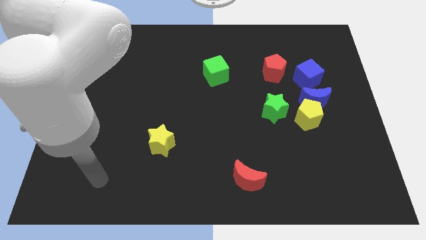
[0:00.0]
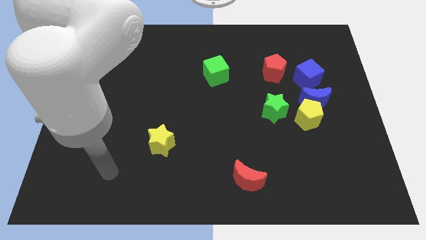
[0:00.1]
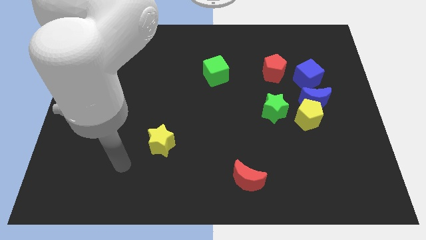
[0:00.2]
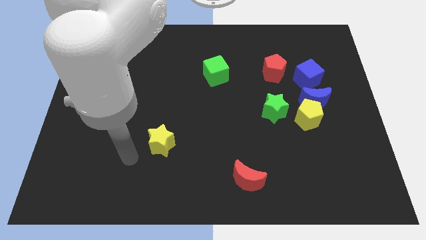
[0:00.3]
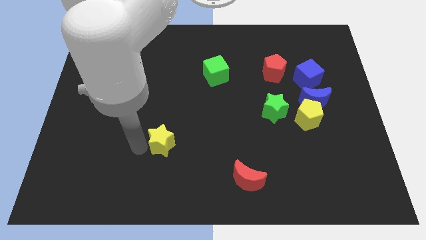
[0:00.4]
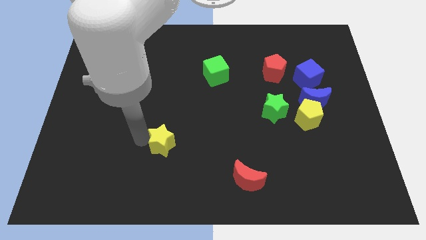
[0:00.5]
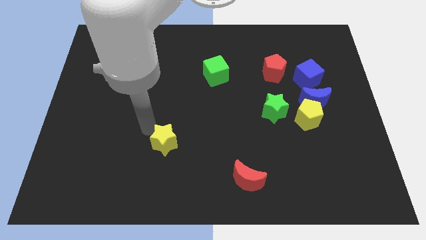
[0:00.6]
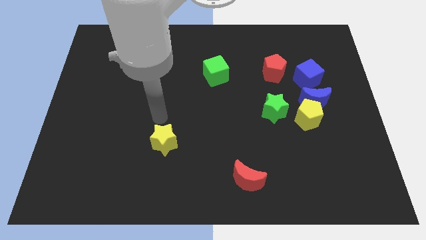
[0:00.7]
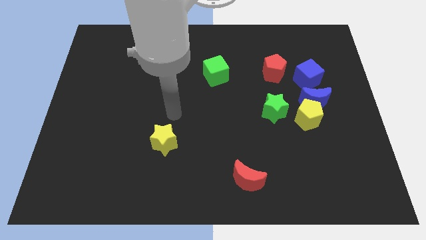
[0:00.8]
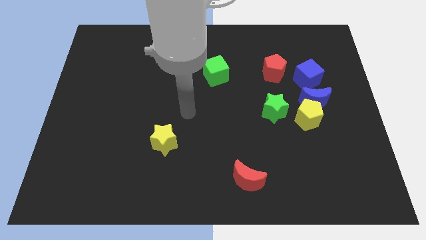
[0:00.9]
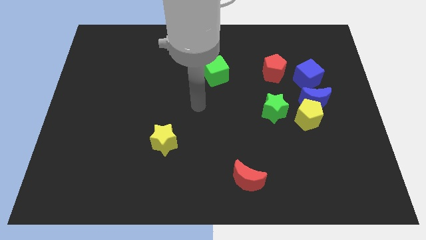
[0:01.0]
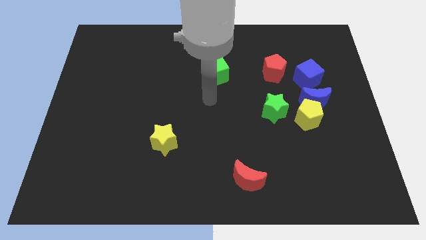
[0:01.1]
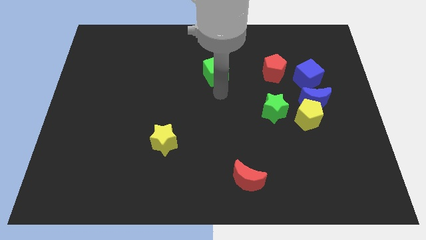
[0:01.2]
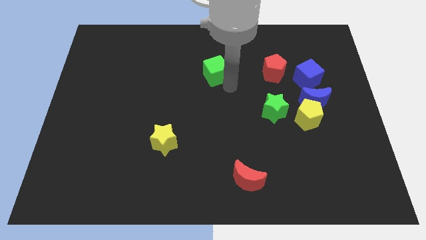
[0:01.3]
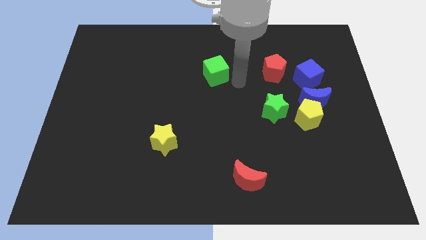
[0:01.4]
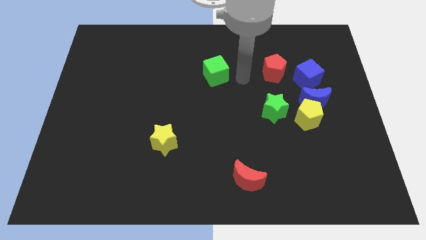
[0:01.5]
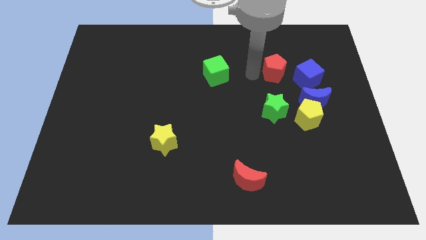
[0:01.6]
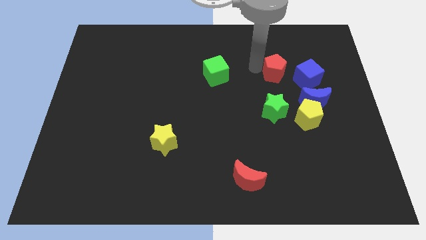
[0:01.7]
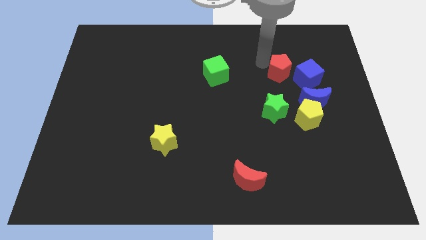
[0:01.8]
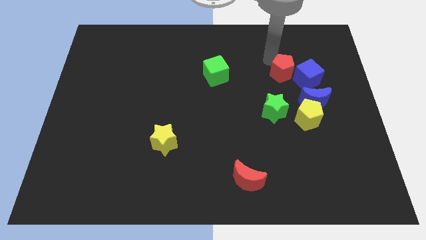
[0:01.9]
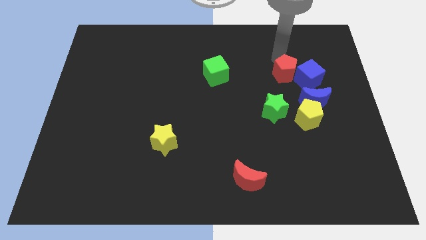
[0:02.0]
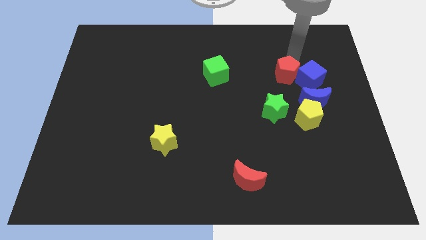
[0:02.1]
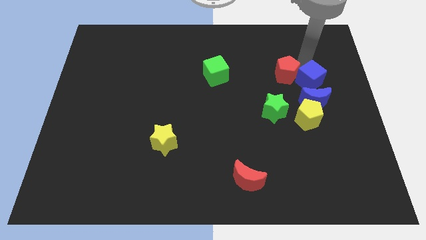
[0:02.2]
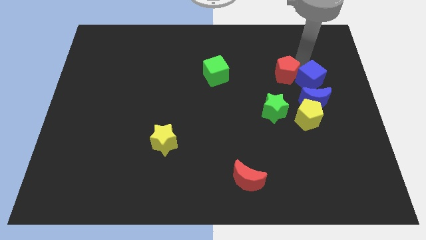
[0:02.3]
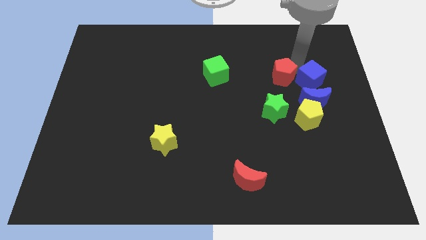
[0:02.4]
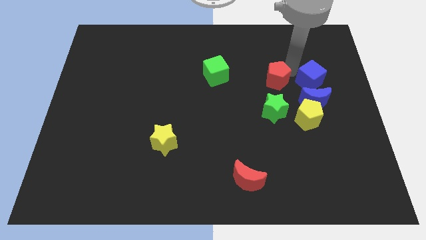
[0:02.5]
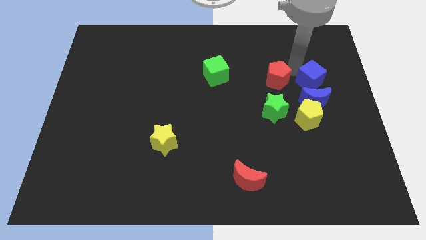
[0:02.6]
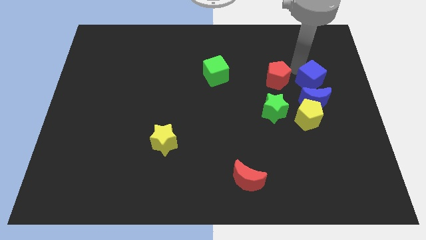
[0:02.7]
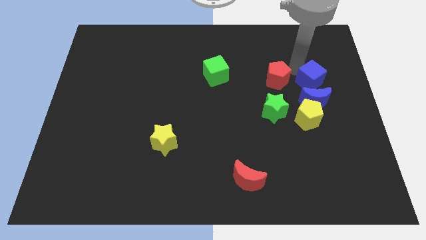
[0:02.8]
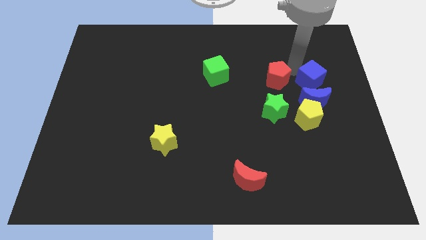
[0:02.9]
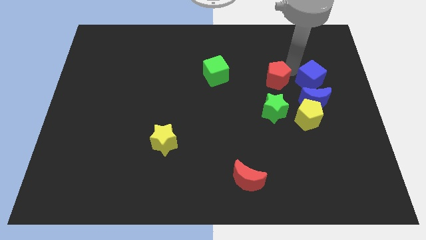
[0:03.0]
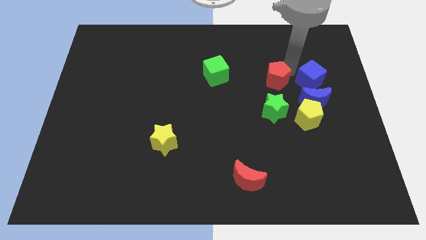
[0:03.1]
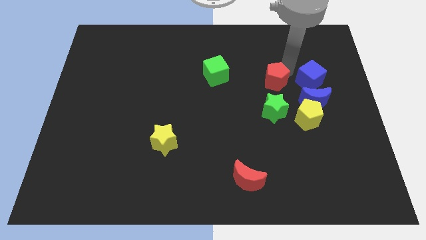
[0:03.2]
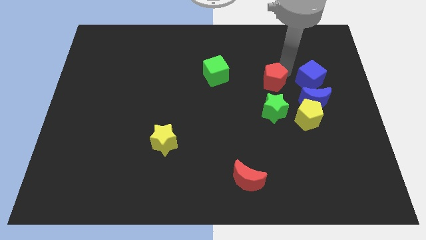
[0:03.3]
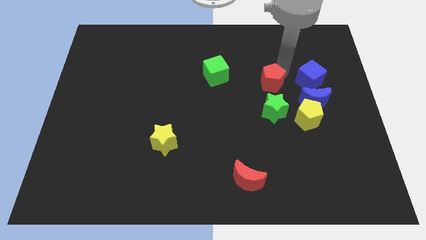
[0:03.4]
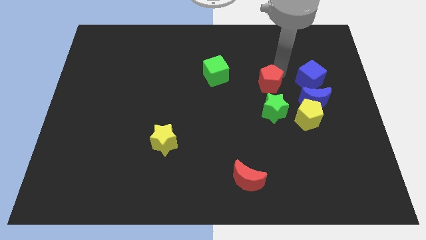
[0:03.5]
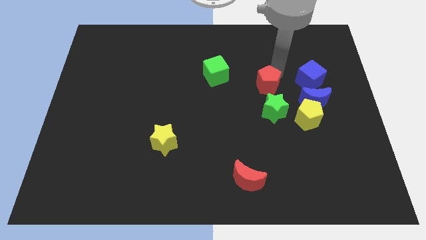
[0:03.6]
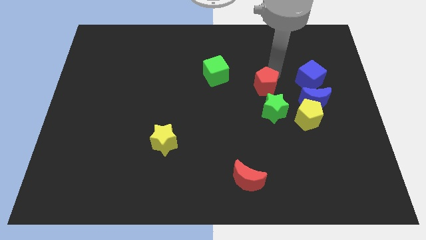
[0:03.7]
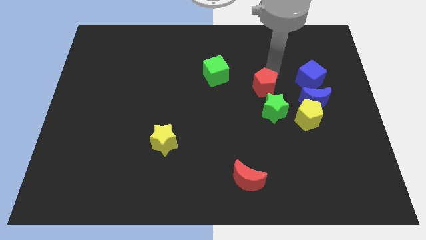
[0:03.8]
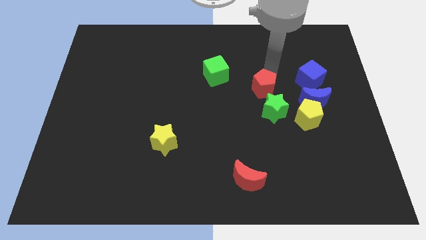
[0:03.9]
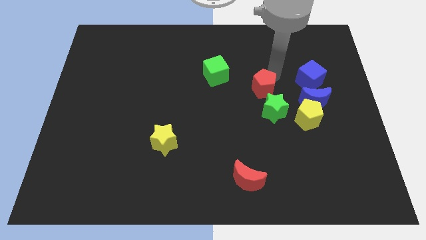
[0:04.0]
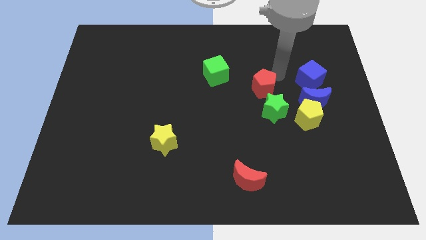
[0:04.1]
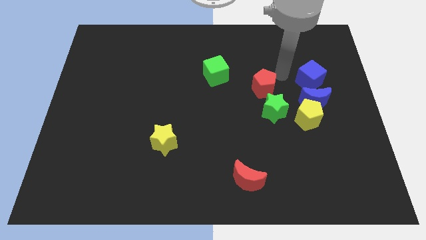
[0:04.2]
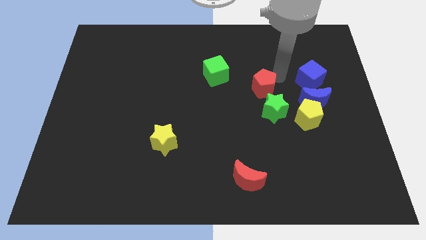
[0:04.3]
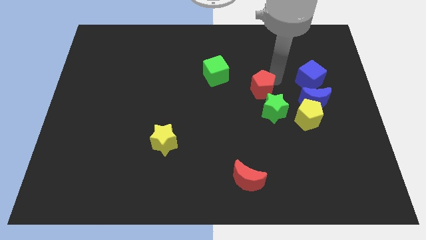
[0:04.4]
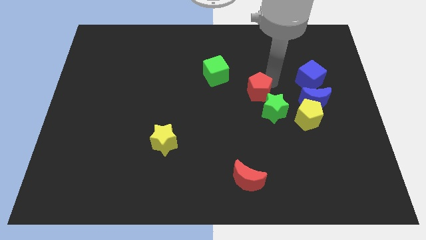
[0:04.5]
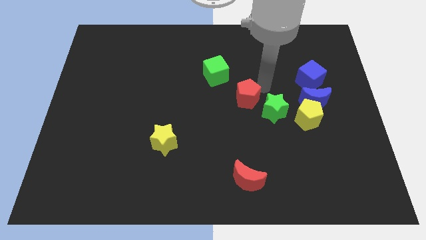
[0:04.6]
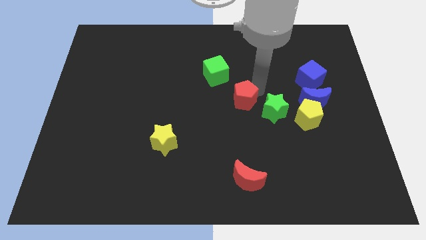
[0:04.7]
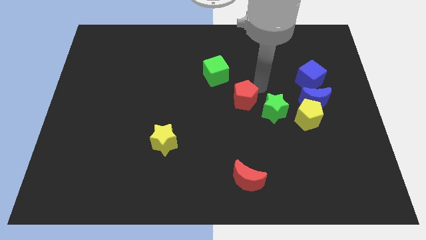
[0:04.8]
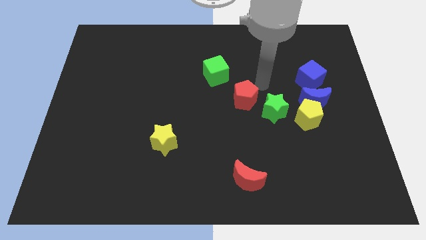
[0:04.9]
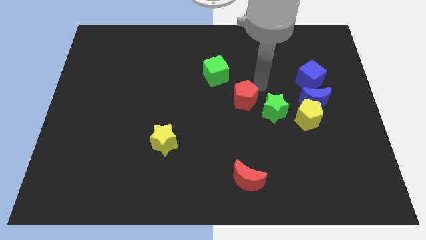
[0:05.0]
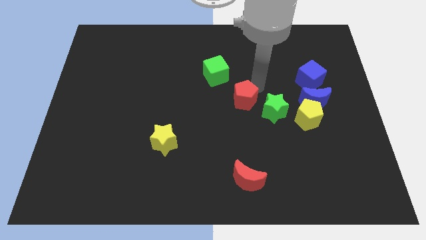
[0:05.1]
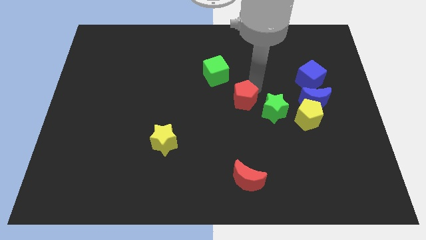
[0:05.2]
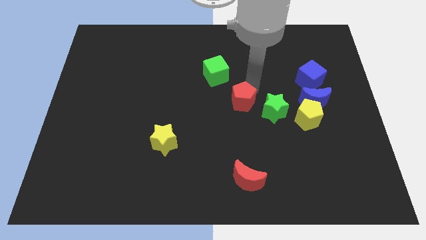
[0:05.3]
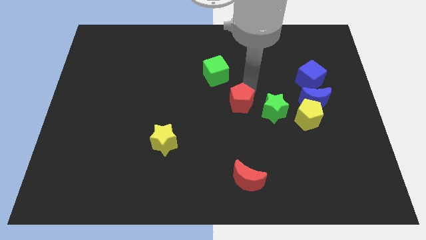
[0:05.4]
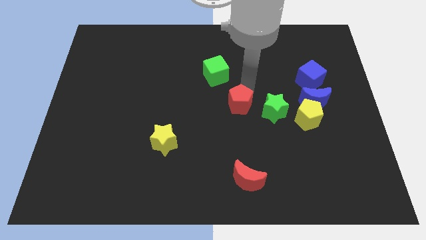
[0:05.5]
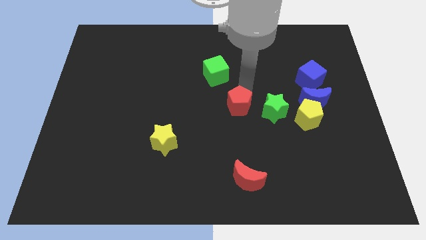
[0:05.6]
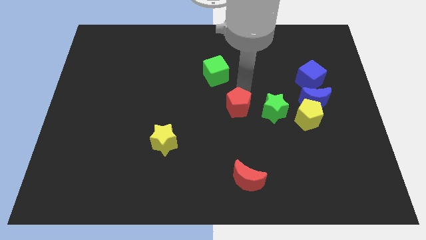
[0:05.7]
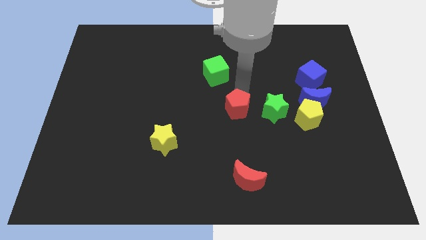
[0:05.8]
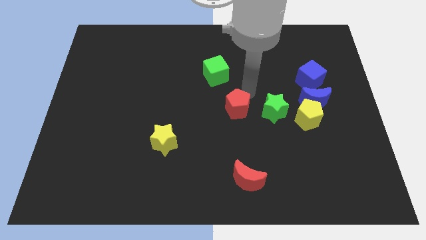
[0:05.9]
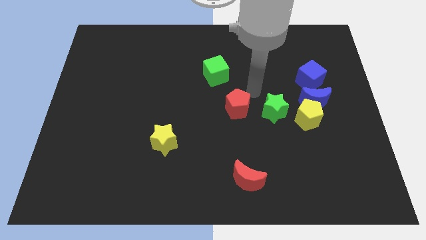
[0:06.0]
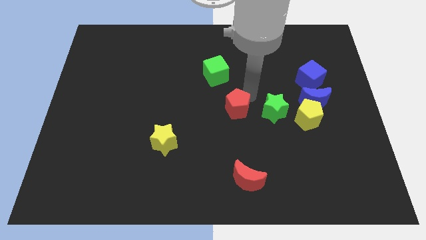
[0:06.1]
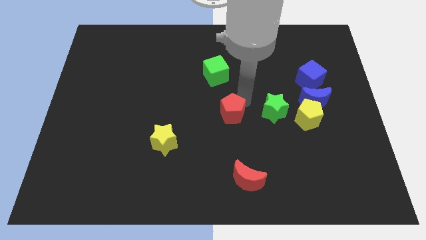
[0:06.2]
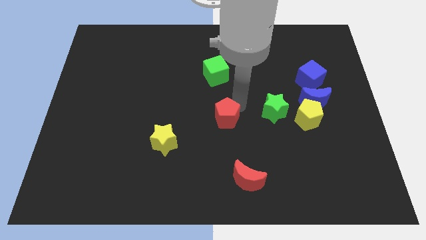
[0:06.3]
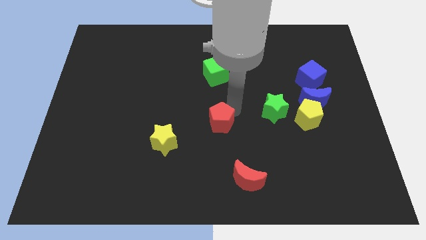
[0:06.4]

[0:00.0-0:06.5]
slide the red pentagon down and left diagonally

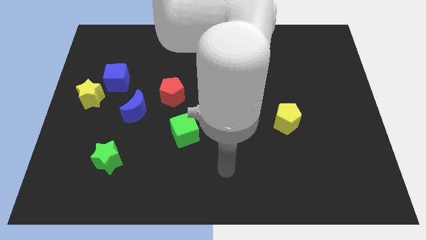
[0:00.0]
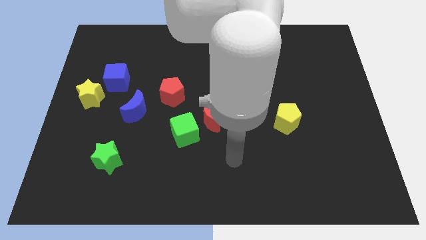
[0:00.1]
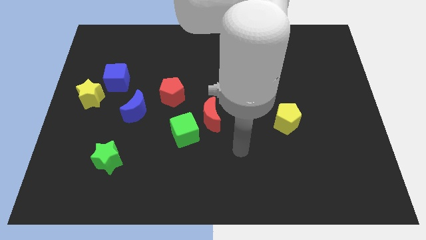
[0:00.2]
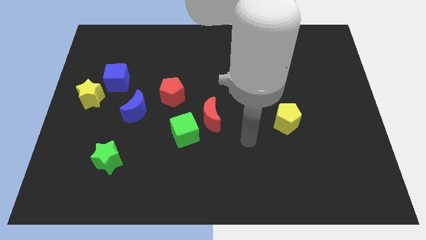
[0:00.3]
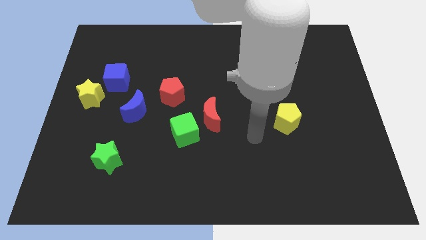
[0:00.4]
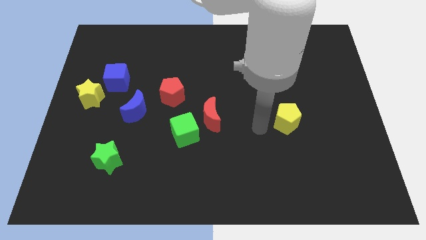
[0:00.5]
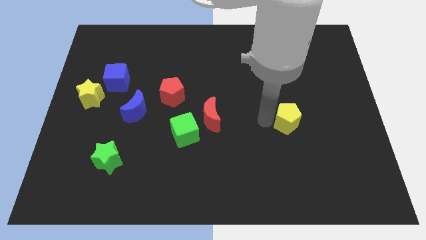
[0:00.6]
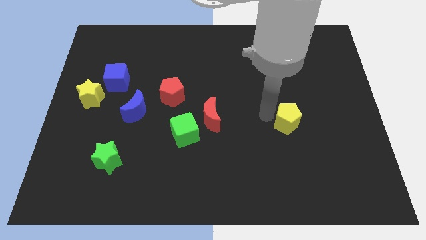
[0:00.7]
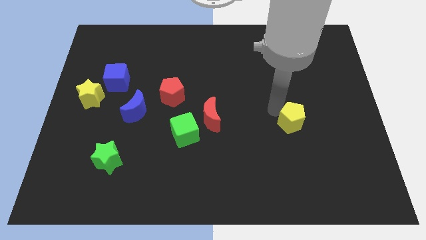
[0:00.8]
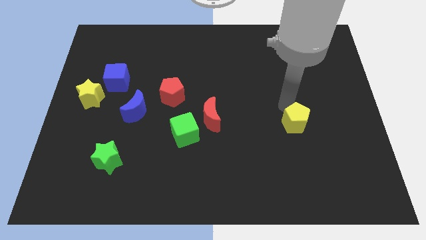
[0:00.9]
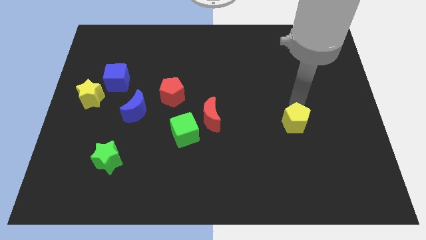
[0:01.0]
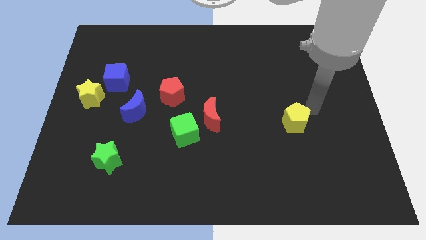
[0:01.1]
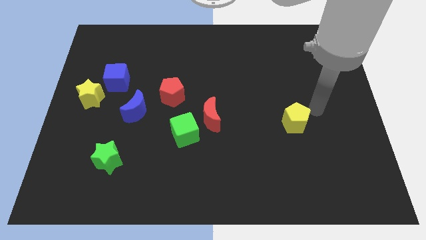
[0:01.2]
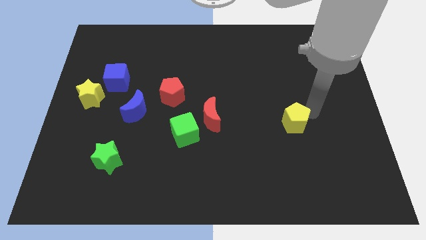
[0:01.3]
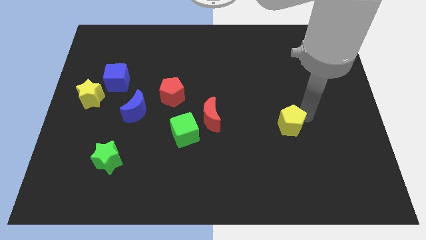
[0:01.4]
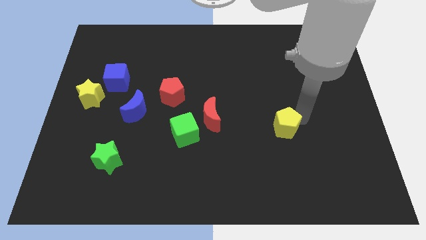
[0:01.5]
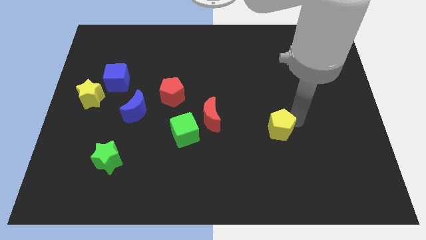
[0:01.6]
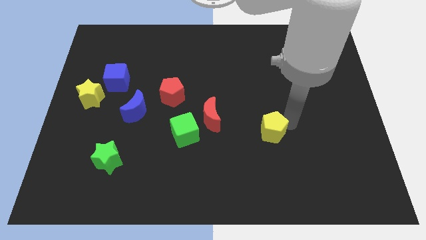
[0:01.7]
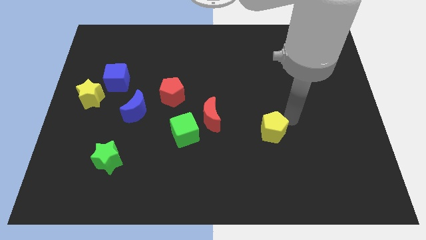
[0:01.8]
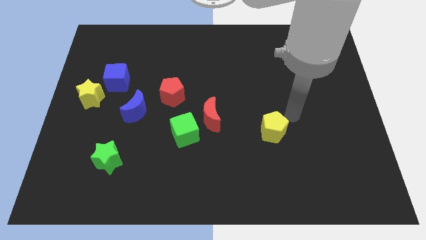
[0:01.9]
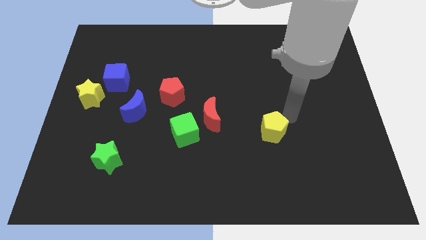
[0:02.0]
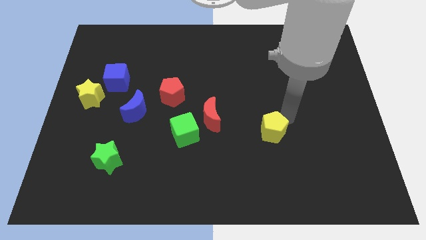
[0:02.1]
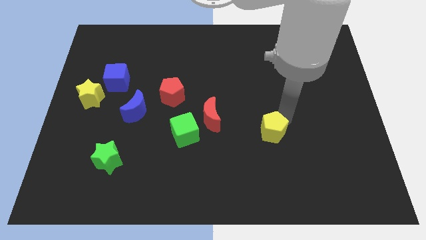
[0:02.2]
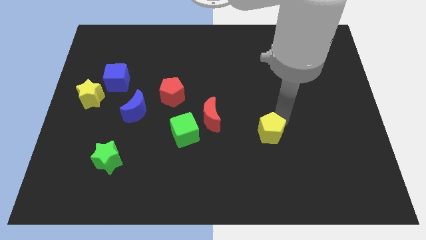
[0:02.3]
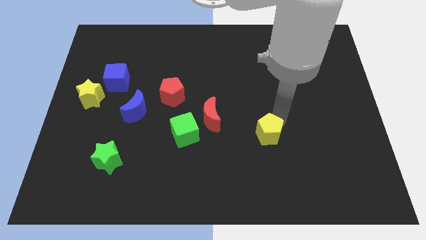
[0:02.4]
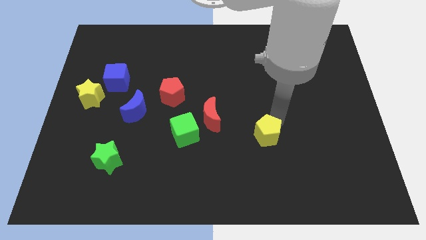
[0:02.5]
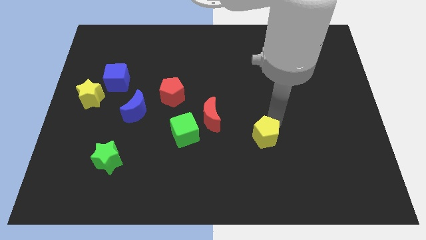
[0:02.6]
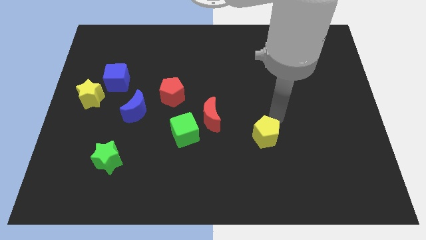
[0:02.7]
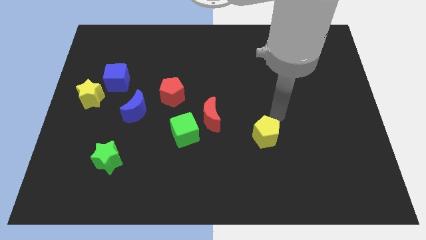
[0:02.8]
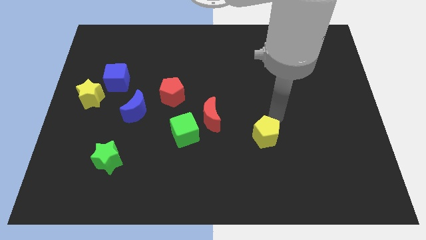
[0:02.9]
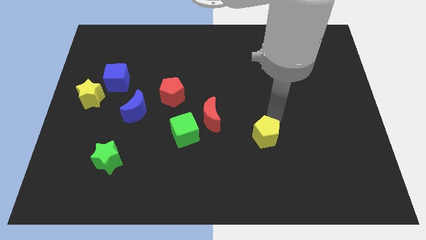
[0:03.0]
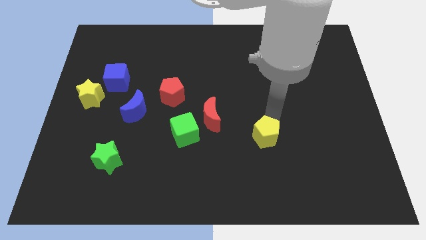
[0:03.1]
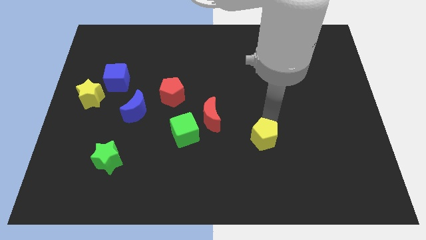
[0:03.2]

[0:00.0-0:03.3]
slide the yellow pentagon somewhat diagonally downwards and left
